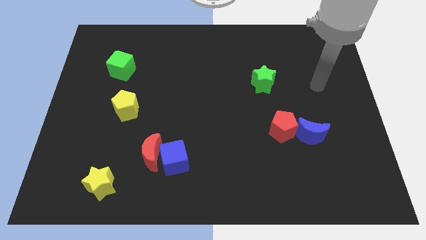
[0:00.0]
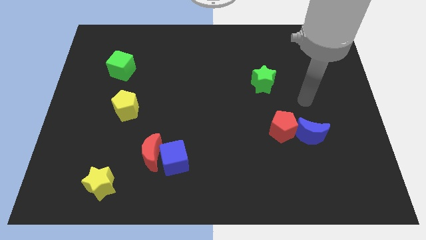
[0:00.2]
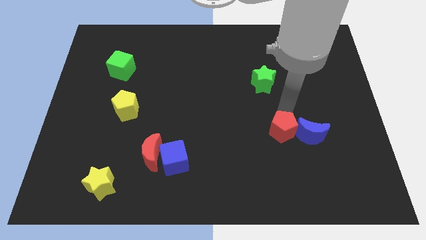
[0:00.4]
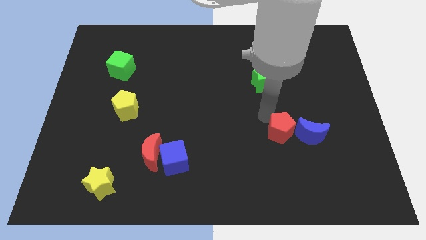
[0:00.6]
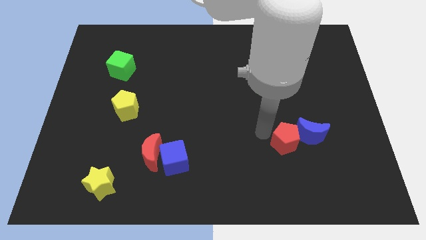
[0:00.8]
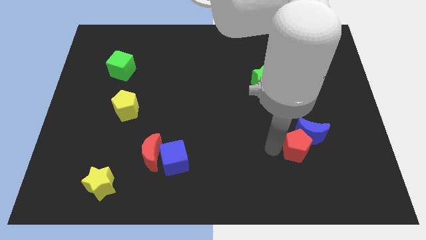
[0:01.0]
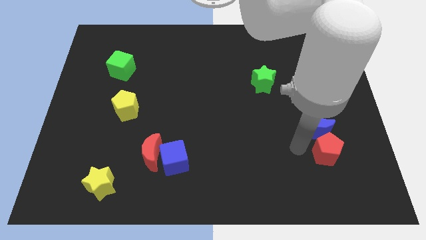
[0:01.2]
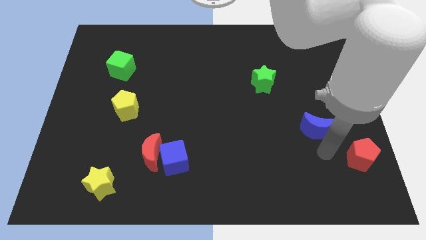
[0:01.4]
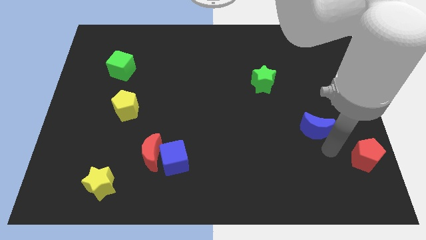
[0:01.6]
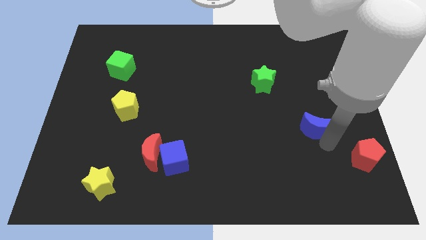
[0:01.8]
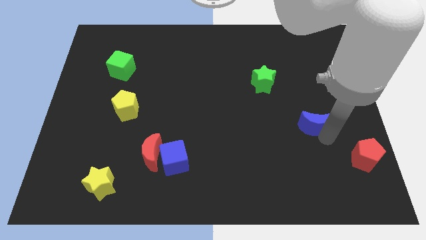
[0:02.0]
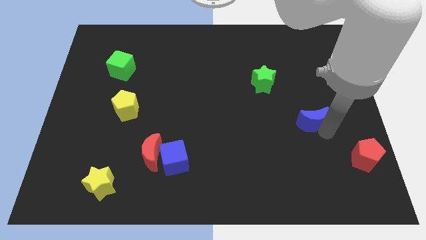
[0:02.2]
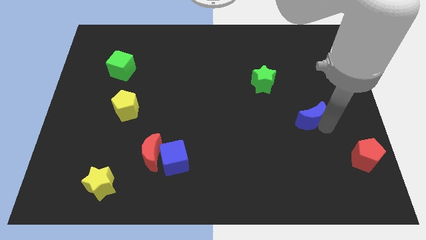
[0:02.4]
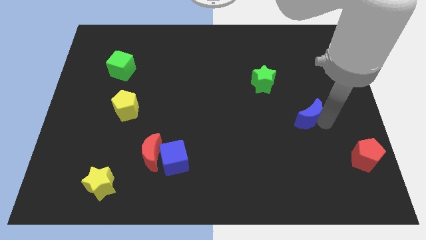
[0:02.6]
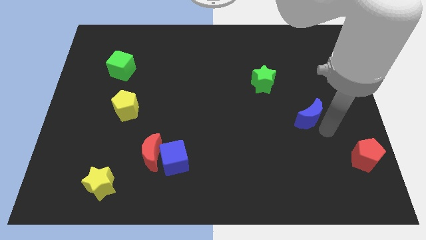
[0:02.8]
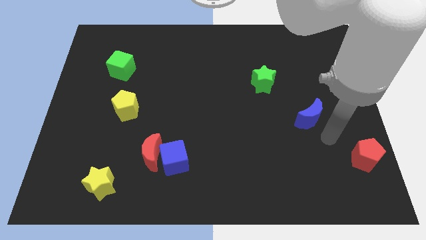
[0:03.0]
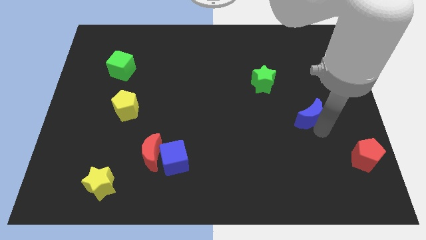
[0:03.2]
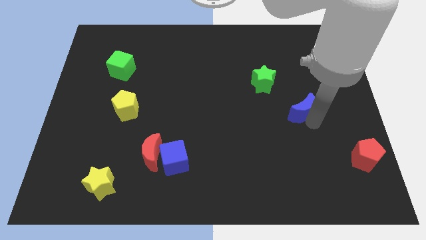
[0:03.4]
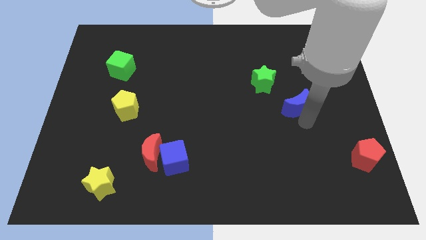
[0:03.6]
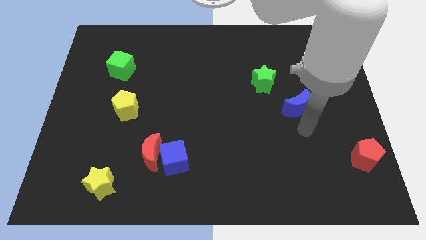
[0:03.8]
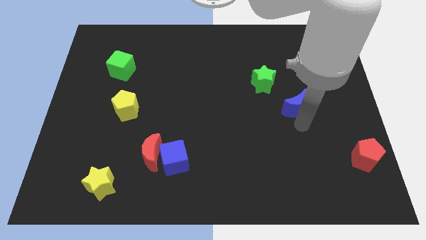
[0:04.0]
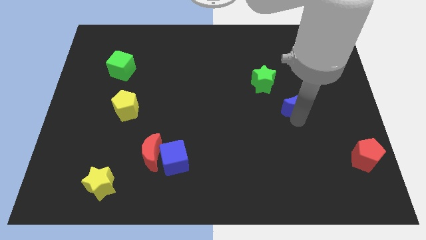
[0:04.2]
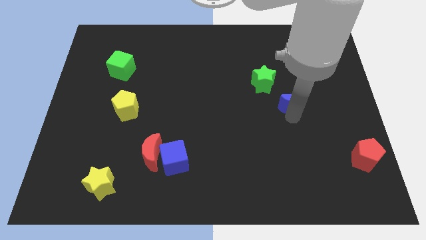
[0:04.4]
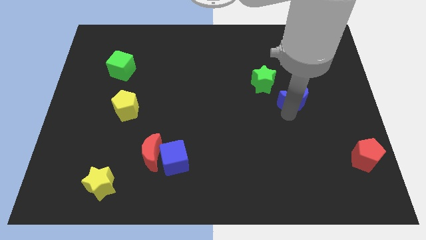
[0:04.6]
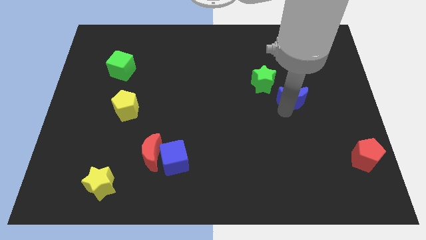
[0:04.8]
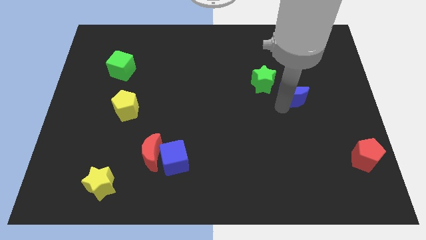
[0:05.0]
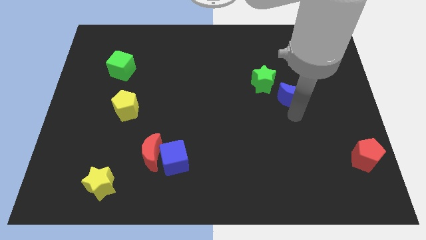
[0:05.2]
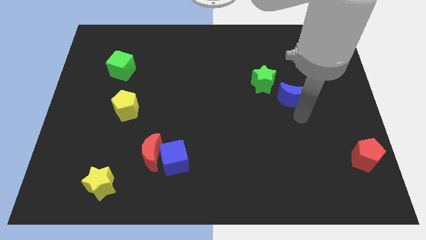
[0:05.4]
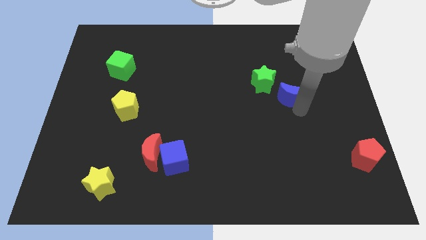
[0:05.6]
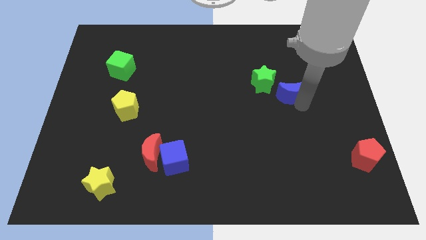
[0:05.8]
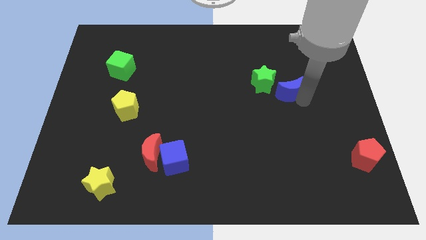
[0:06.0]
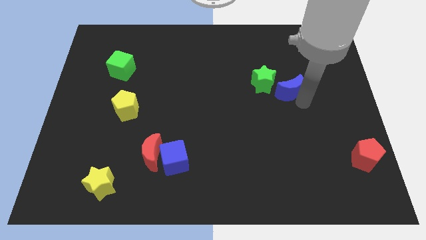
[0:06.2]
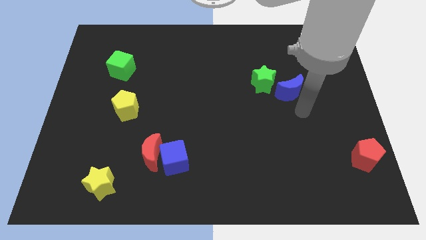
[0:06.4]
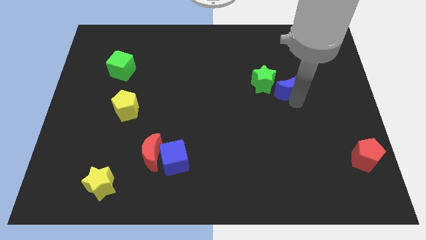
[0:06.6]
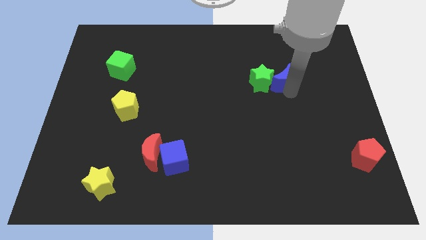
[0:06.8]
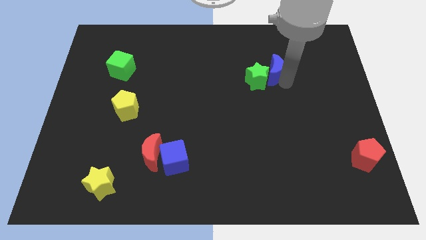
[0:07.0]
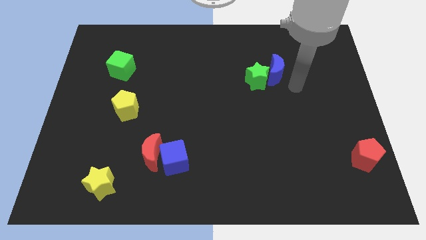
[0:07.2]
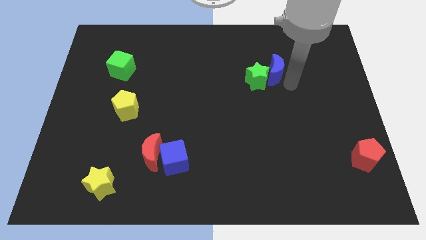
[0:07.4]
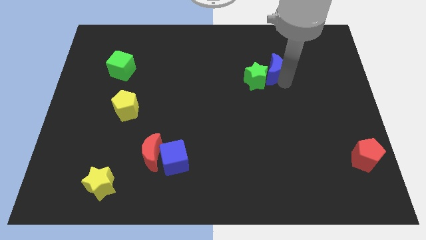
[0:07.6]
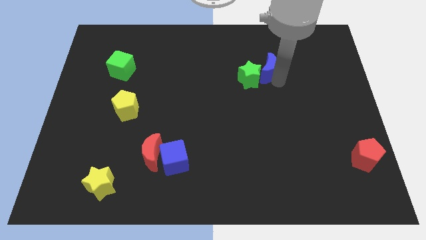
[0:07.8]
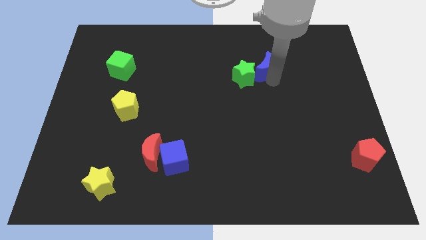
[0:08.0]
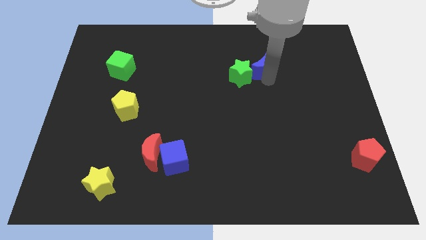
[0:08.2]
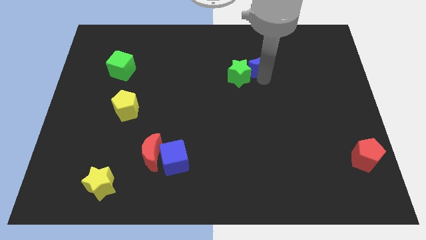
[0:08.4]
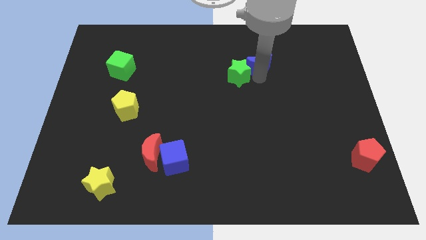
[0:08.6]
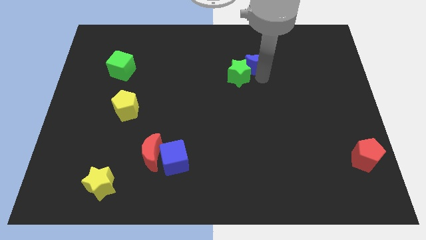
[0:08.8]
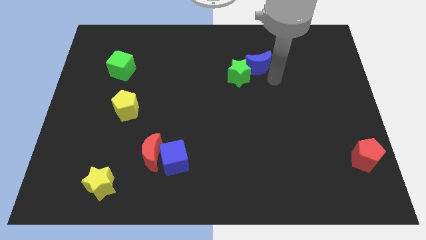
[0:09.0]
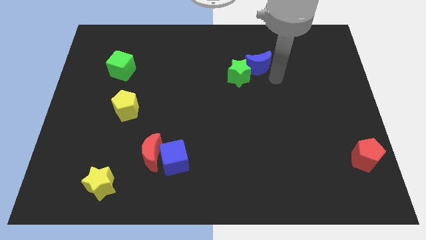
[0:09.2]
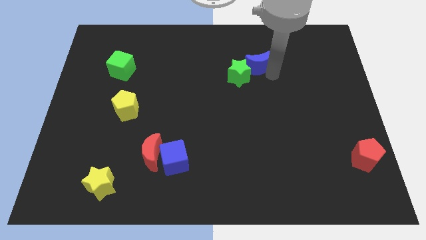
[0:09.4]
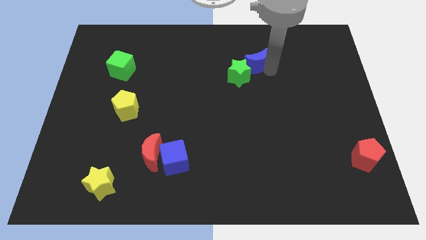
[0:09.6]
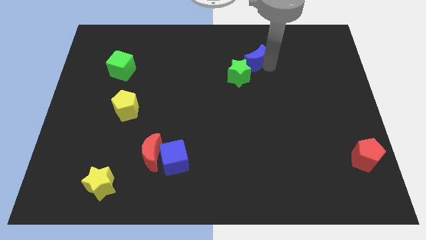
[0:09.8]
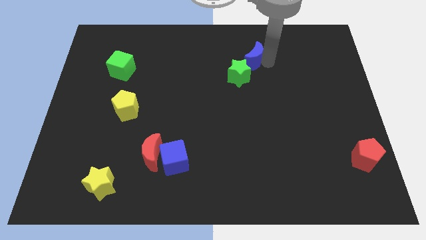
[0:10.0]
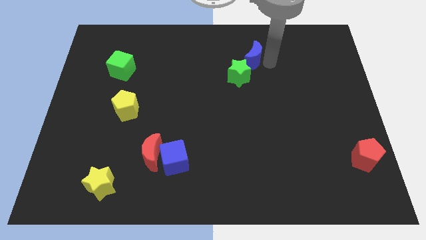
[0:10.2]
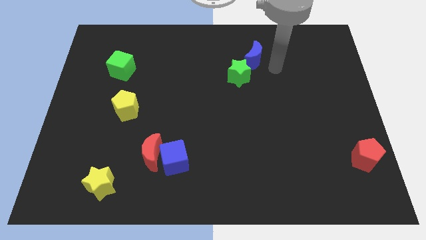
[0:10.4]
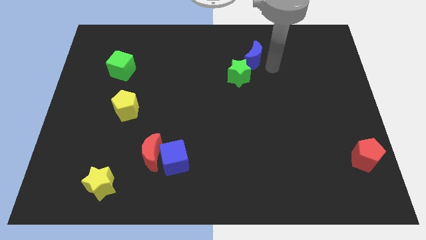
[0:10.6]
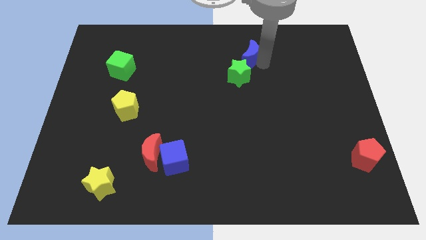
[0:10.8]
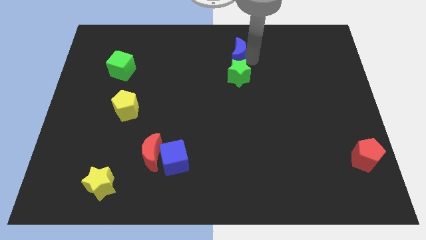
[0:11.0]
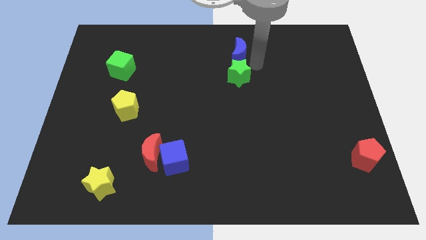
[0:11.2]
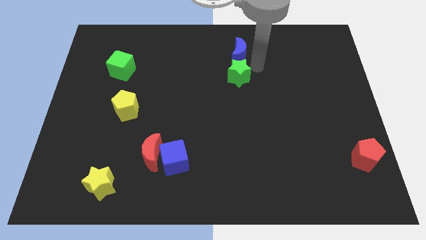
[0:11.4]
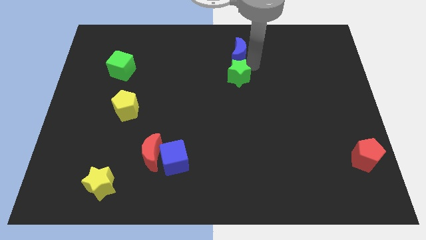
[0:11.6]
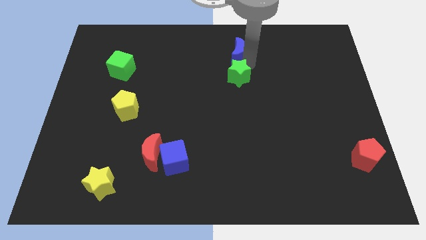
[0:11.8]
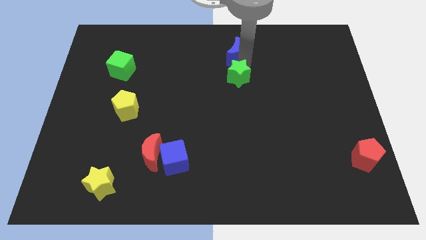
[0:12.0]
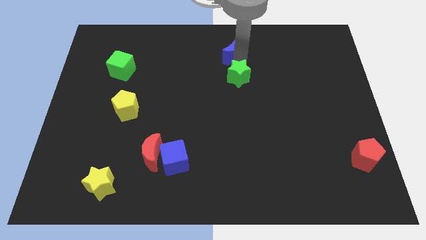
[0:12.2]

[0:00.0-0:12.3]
move the blue moon to the top
